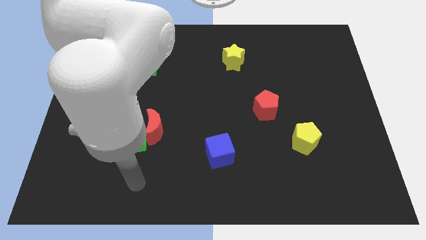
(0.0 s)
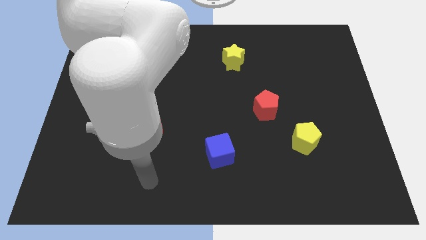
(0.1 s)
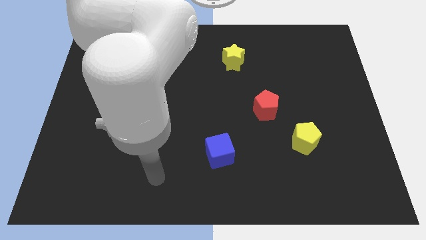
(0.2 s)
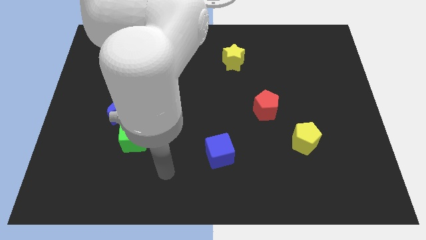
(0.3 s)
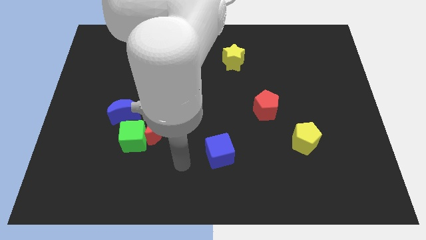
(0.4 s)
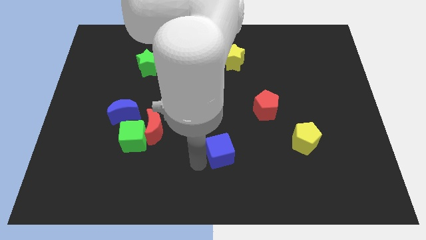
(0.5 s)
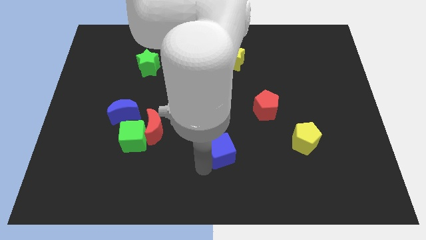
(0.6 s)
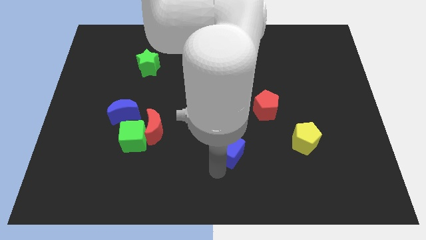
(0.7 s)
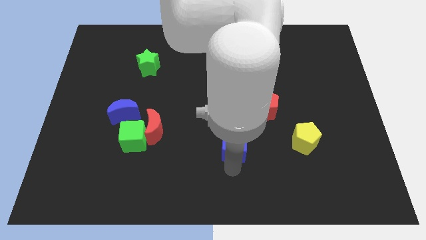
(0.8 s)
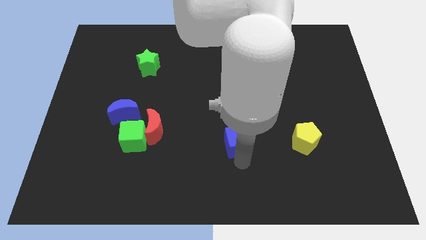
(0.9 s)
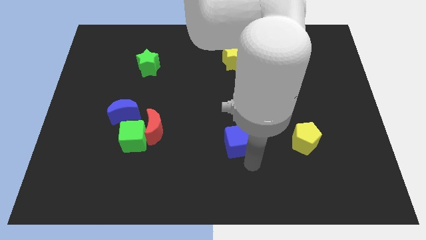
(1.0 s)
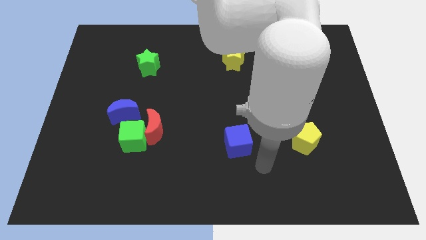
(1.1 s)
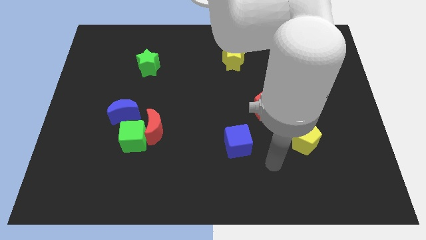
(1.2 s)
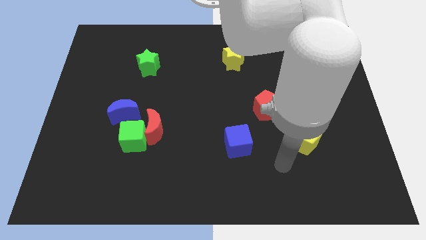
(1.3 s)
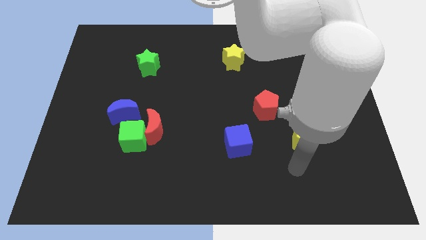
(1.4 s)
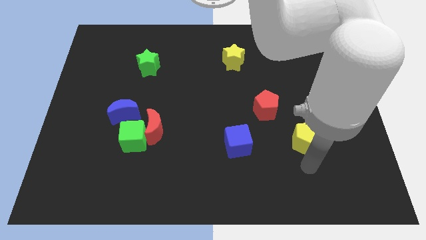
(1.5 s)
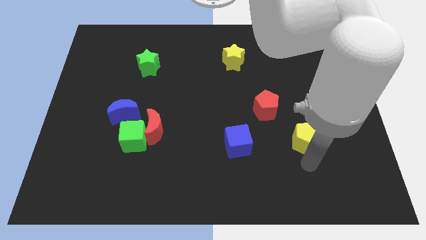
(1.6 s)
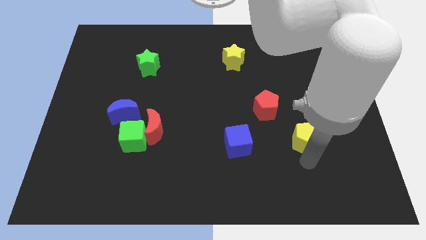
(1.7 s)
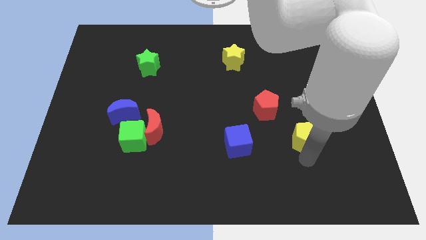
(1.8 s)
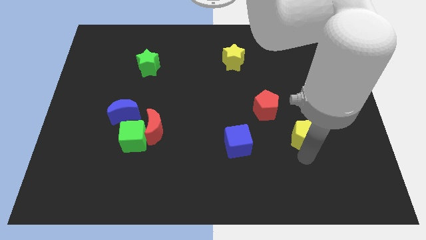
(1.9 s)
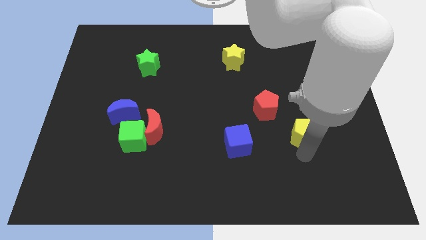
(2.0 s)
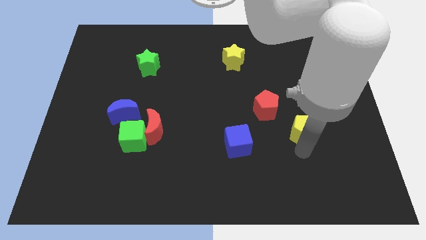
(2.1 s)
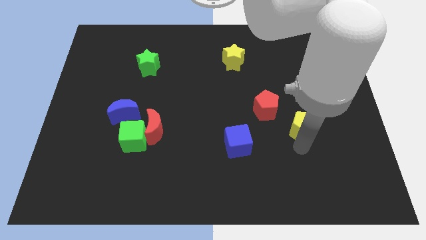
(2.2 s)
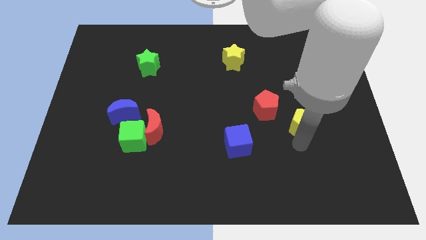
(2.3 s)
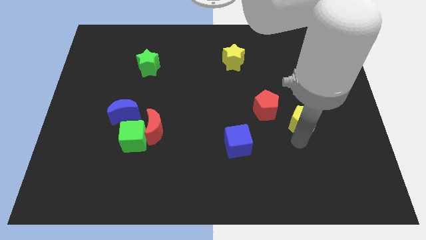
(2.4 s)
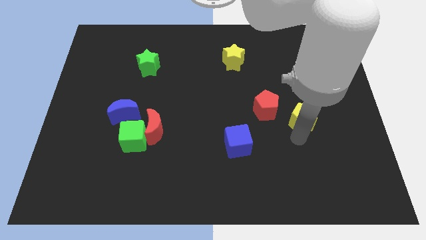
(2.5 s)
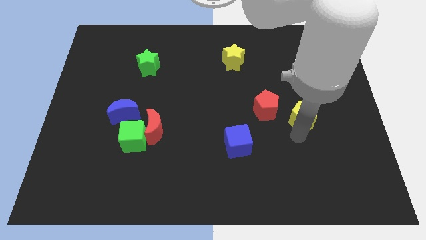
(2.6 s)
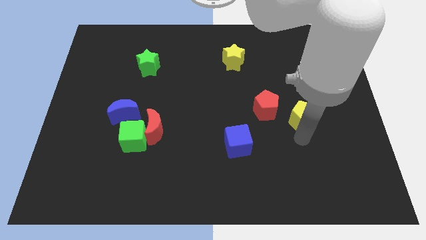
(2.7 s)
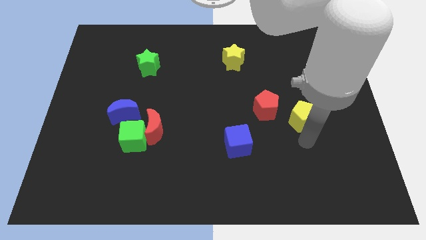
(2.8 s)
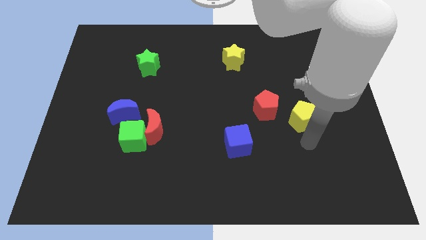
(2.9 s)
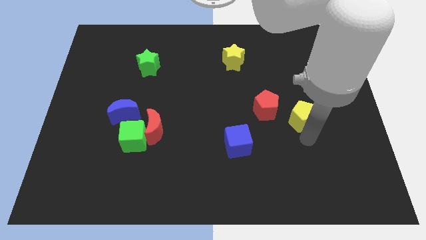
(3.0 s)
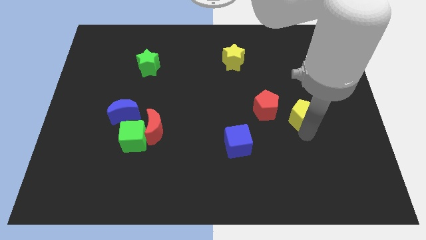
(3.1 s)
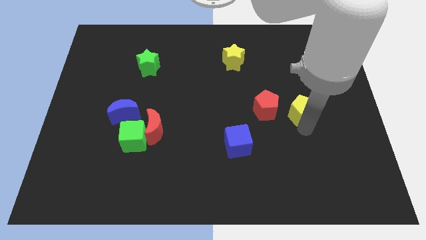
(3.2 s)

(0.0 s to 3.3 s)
move the yellow pentagon upwards a bit

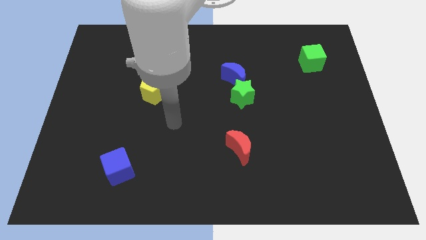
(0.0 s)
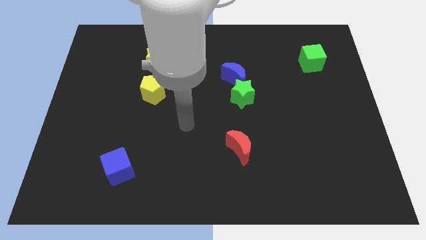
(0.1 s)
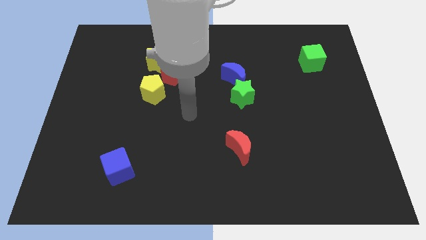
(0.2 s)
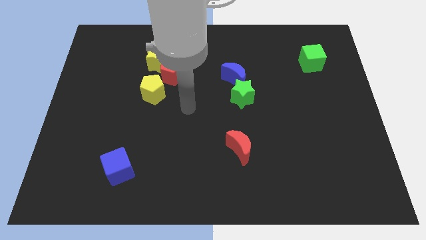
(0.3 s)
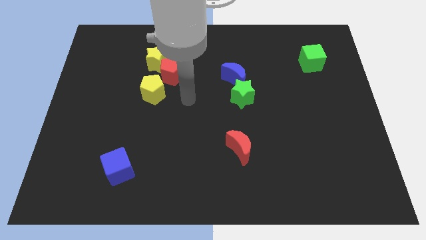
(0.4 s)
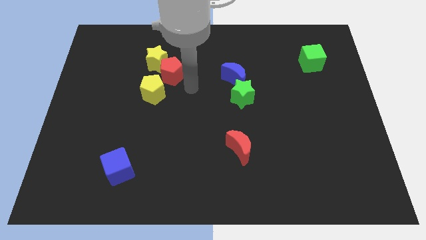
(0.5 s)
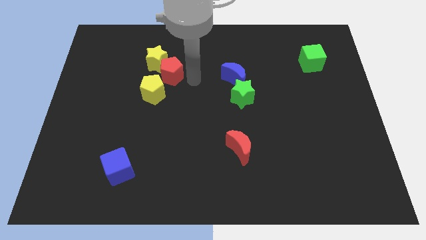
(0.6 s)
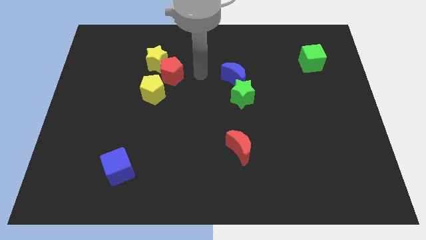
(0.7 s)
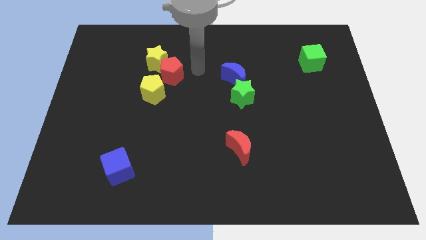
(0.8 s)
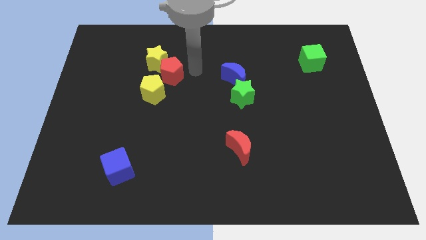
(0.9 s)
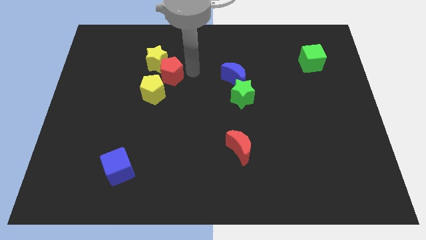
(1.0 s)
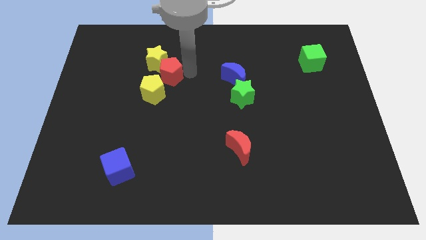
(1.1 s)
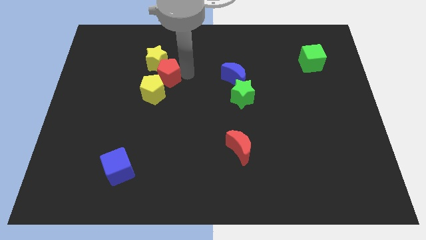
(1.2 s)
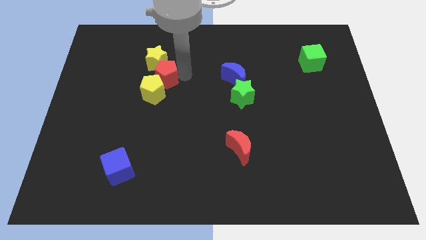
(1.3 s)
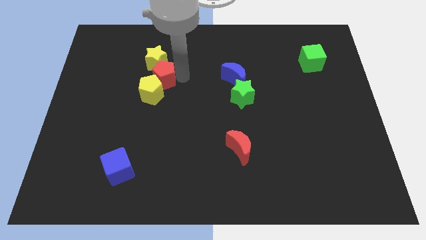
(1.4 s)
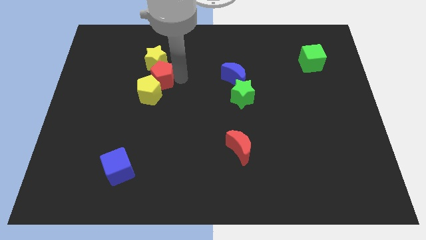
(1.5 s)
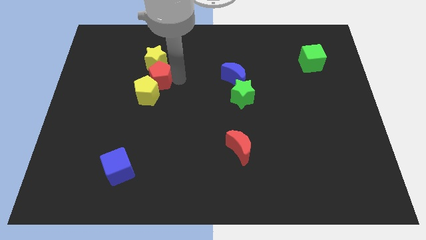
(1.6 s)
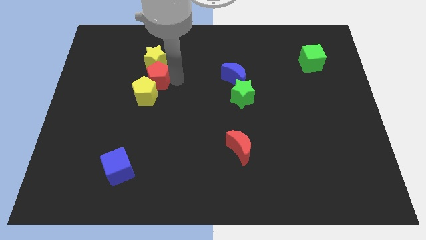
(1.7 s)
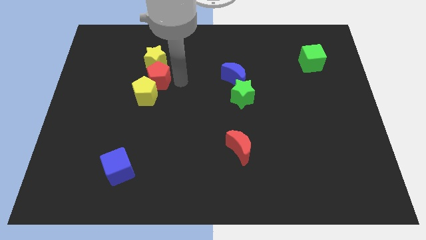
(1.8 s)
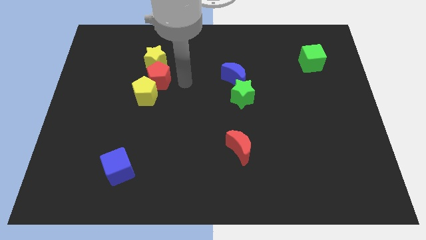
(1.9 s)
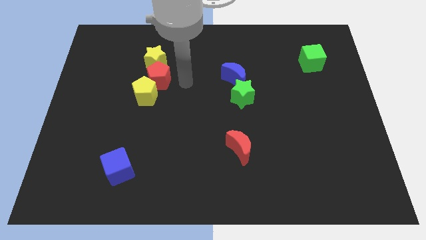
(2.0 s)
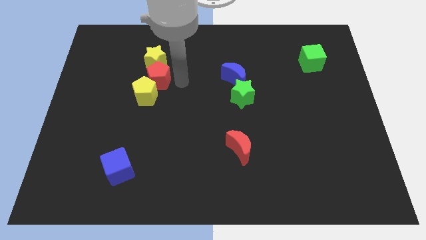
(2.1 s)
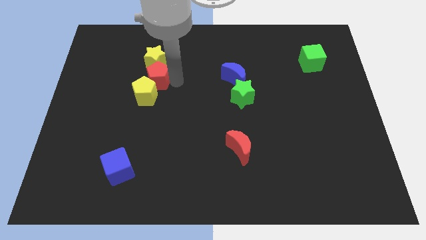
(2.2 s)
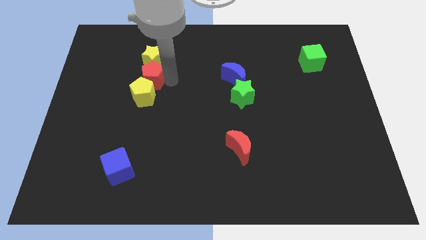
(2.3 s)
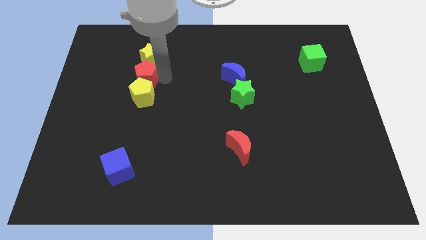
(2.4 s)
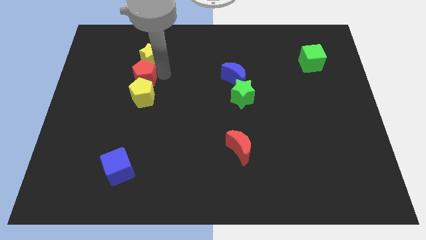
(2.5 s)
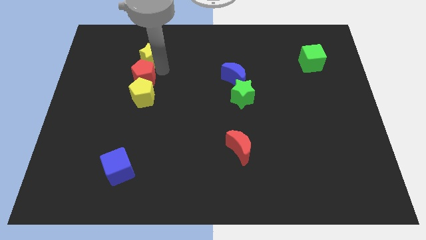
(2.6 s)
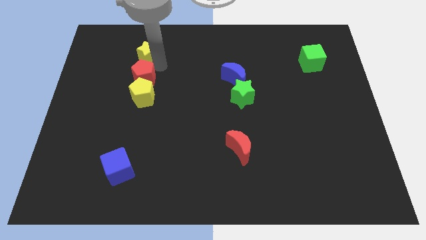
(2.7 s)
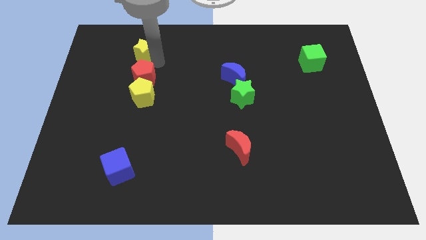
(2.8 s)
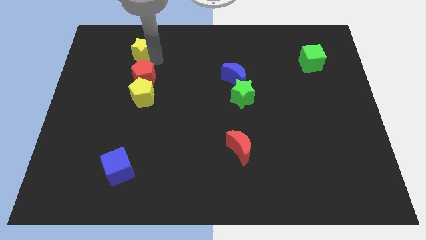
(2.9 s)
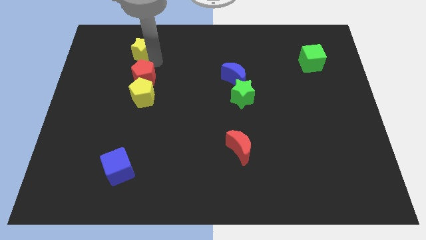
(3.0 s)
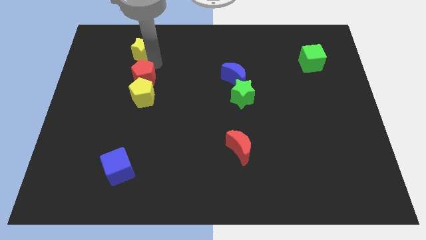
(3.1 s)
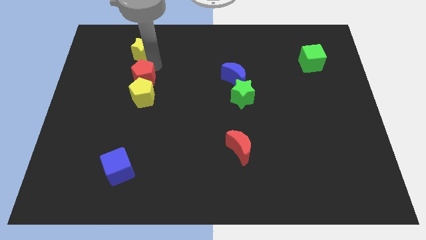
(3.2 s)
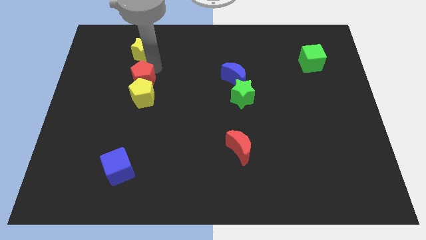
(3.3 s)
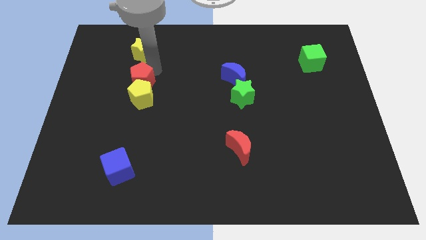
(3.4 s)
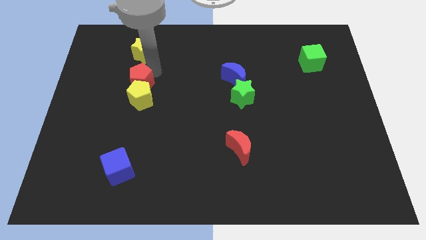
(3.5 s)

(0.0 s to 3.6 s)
move the red pentagon downwards and to the left diagonally somewhat

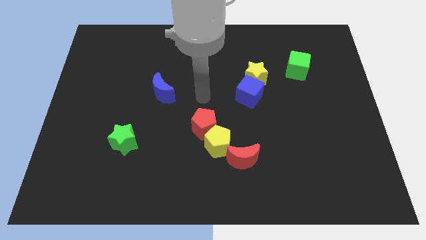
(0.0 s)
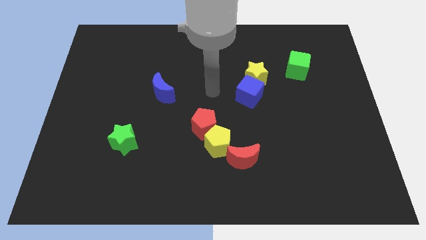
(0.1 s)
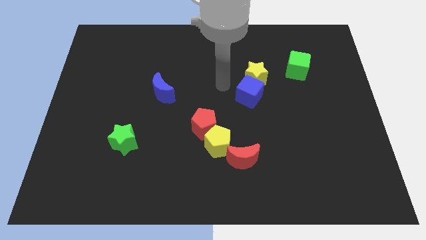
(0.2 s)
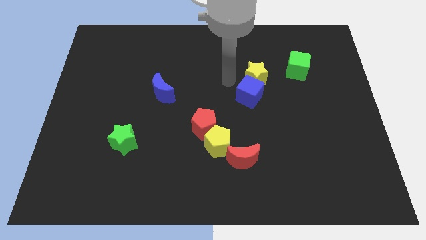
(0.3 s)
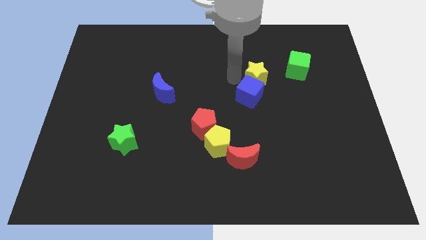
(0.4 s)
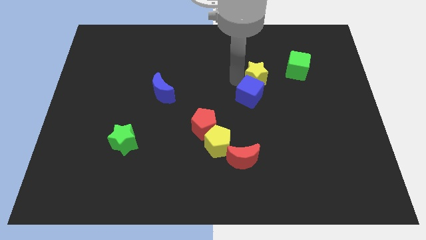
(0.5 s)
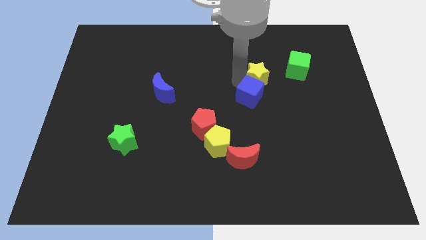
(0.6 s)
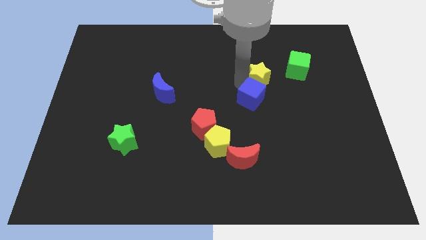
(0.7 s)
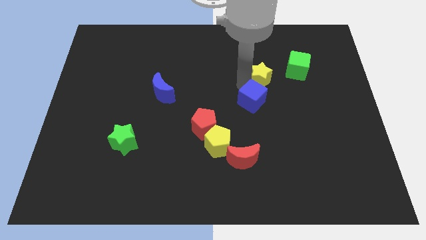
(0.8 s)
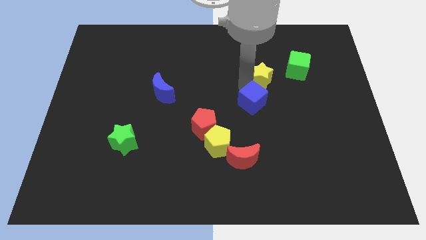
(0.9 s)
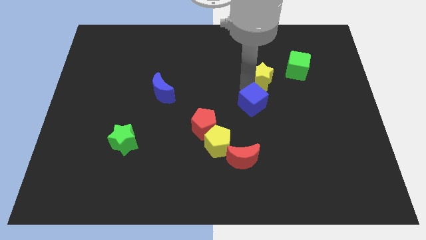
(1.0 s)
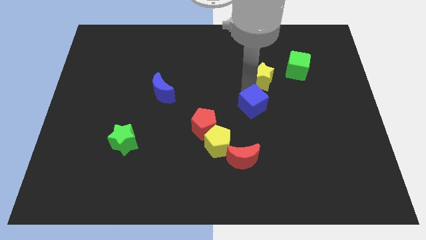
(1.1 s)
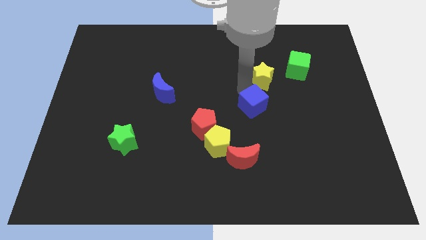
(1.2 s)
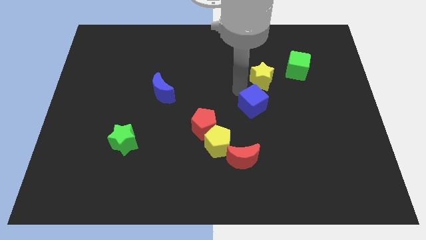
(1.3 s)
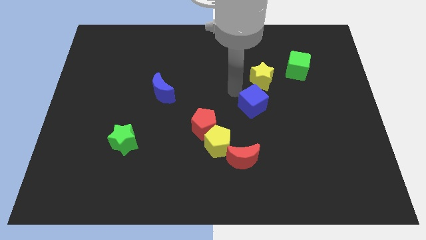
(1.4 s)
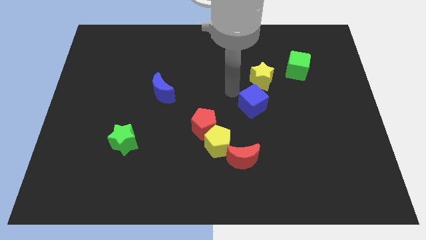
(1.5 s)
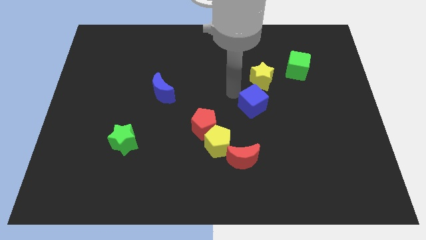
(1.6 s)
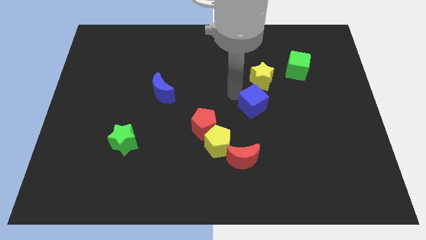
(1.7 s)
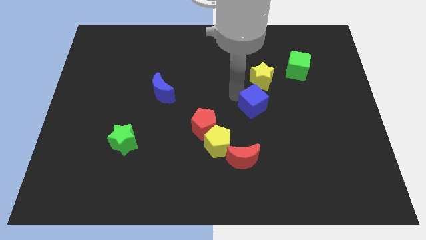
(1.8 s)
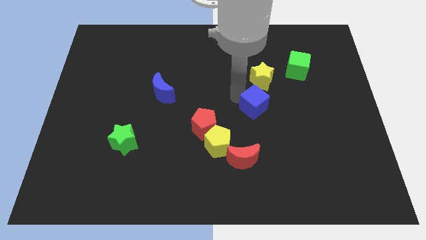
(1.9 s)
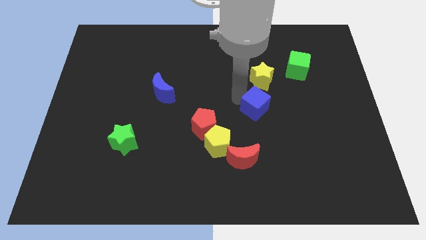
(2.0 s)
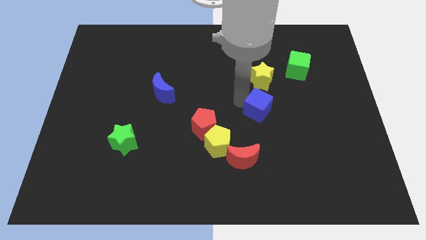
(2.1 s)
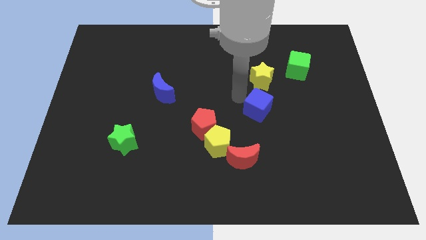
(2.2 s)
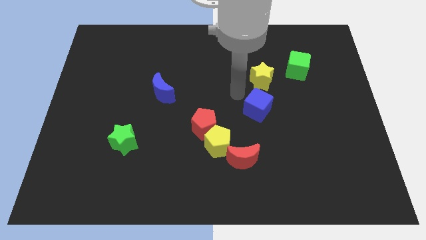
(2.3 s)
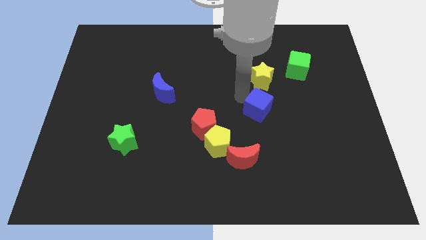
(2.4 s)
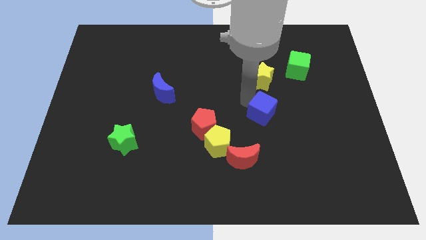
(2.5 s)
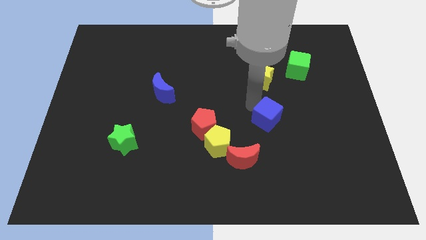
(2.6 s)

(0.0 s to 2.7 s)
push the blue cube somewhat downwards and then to the right
